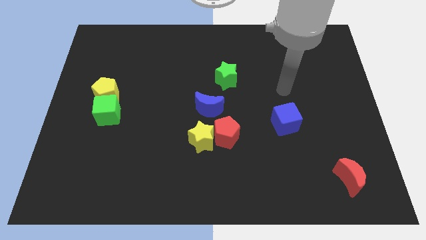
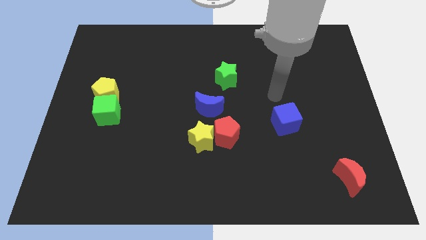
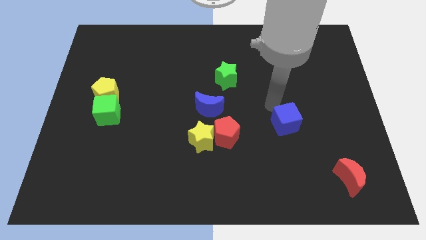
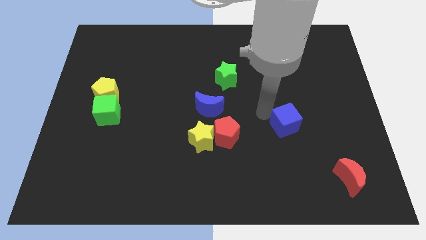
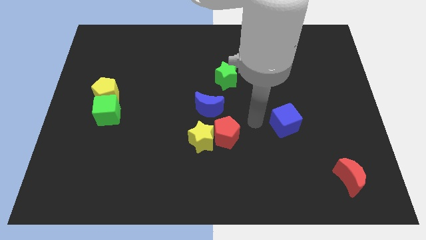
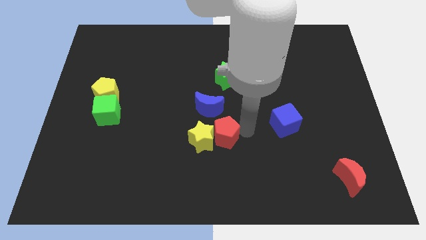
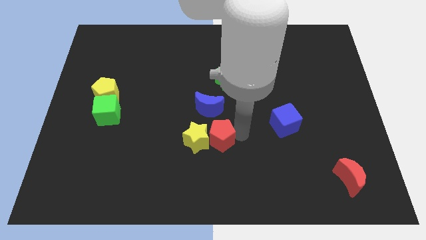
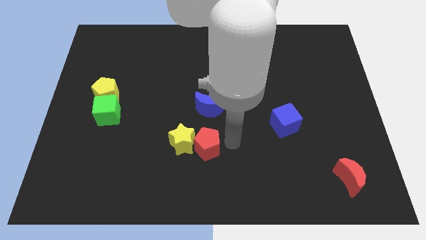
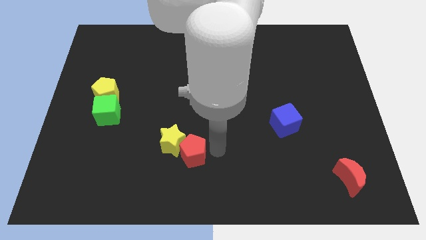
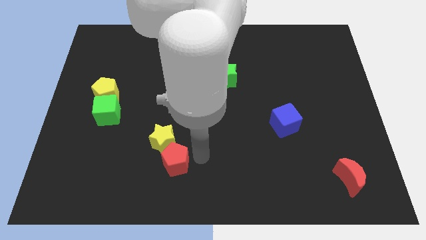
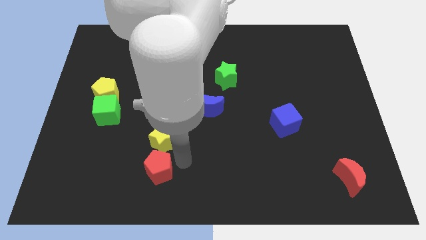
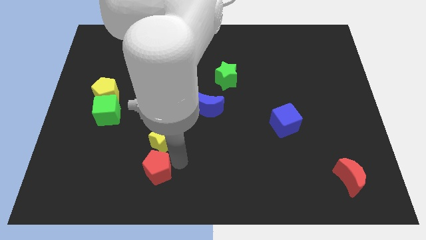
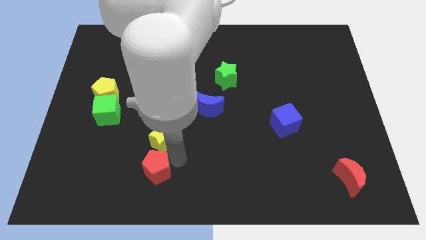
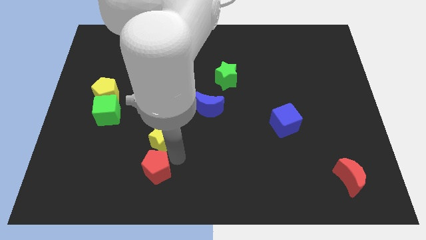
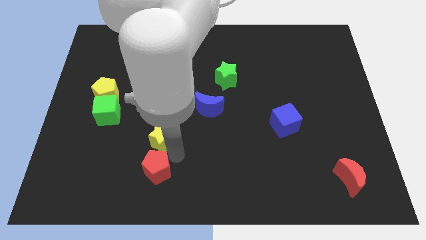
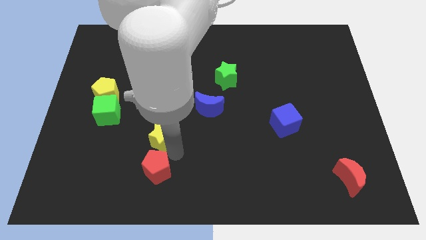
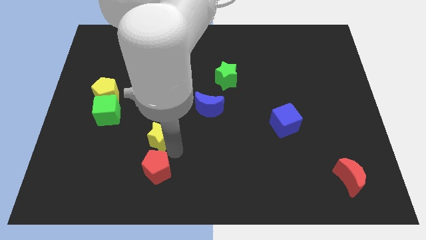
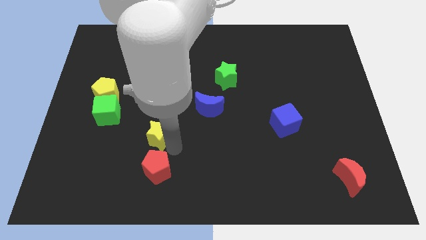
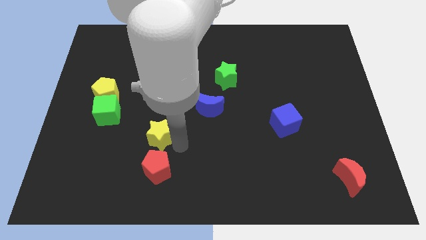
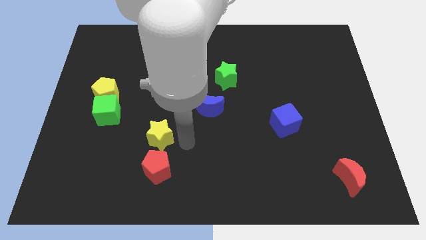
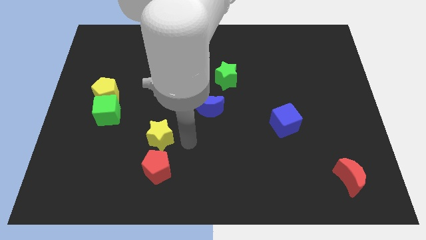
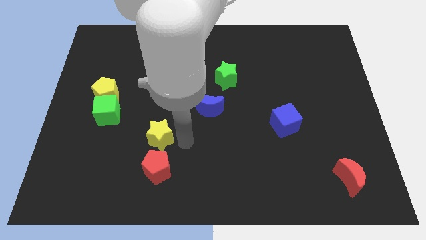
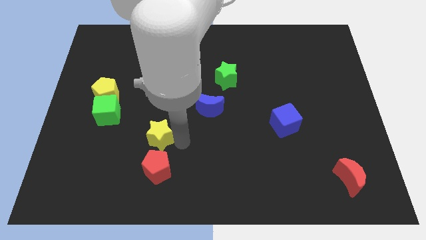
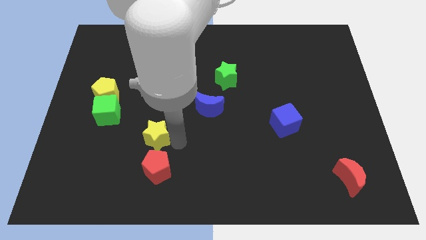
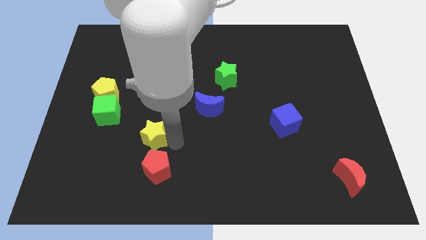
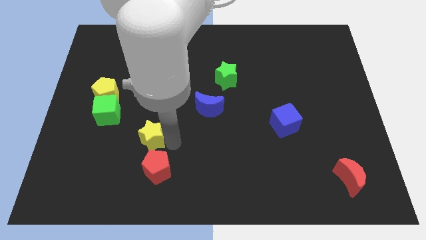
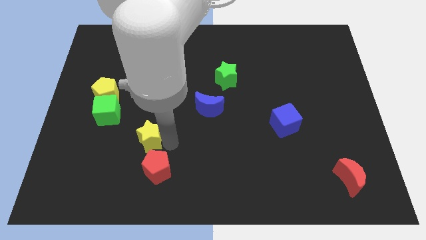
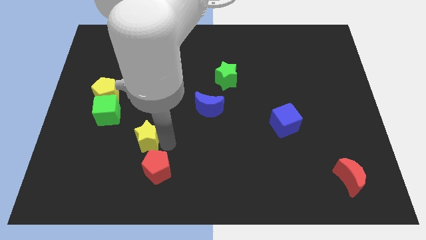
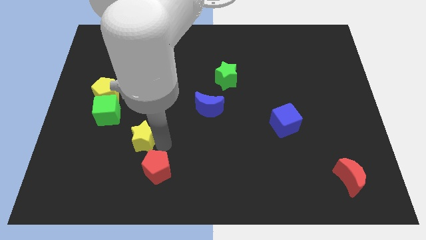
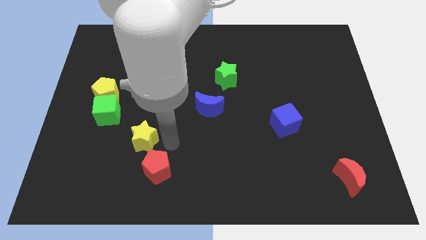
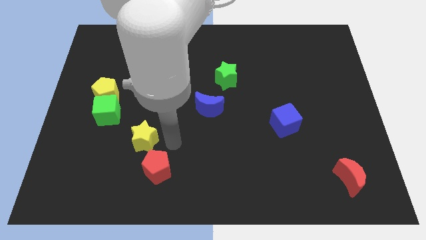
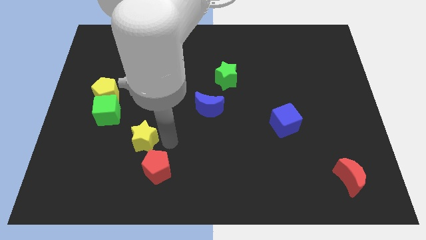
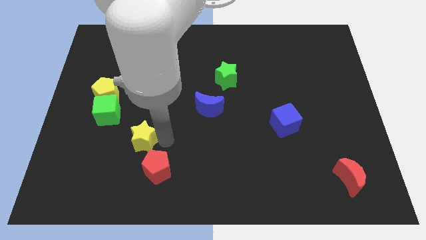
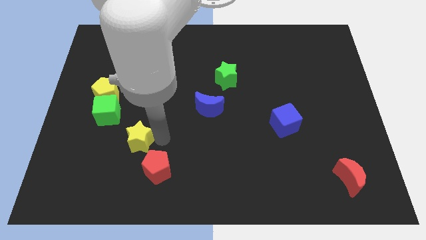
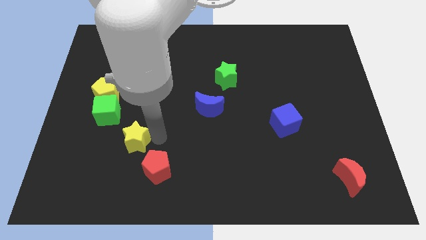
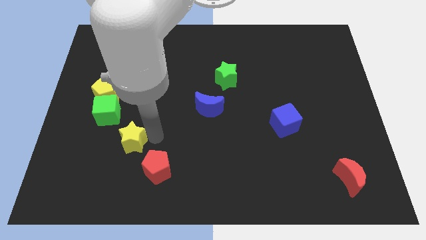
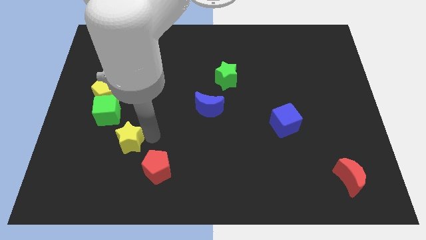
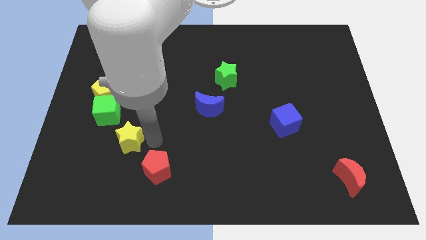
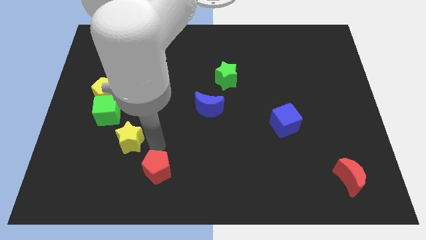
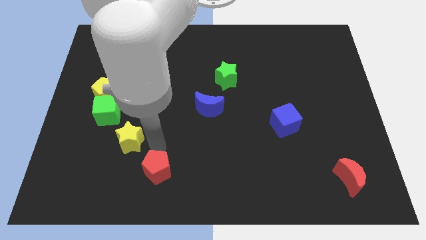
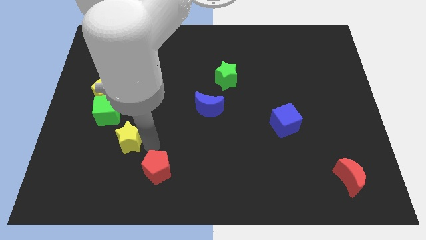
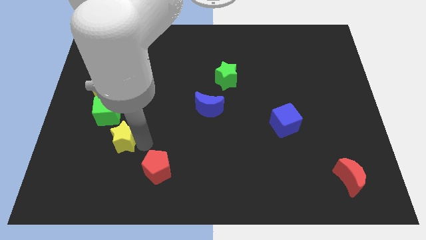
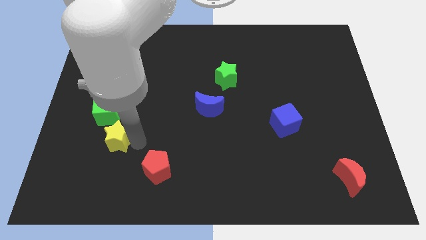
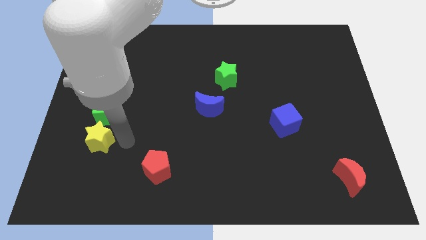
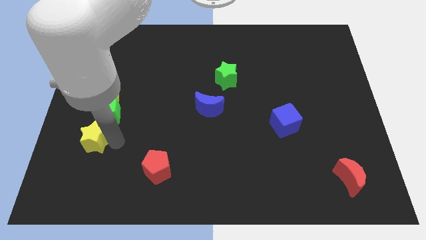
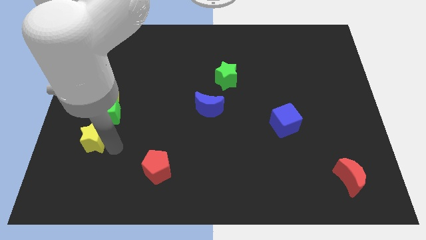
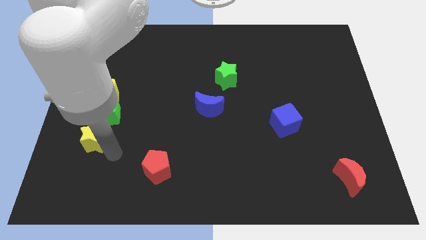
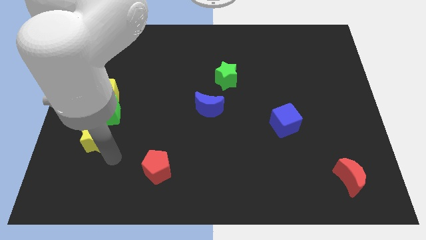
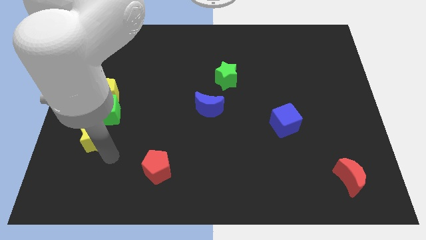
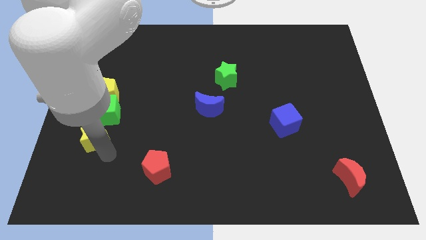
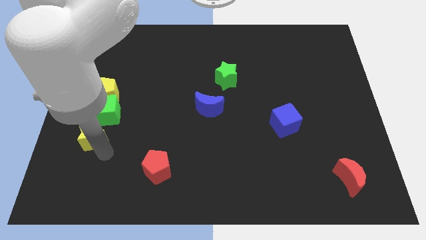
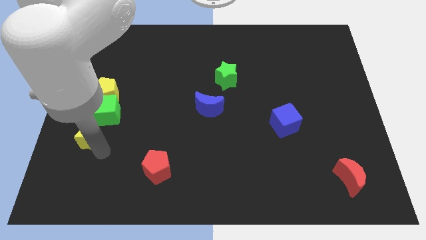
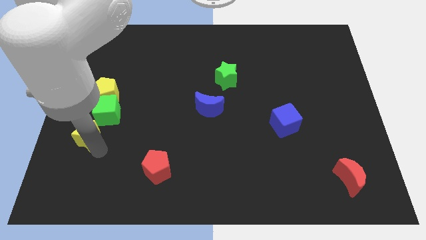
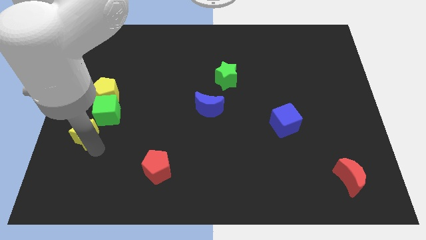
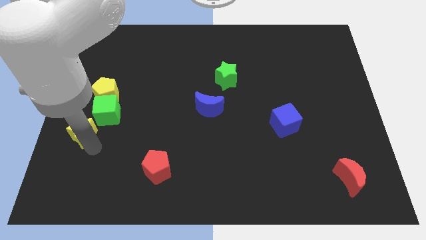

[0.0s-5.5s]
move the yellow star to the left side of the board

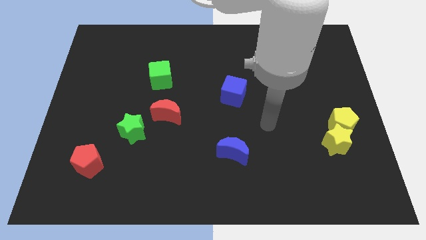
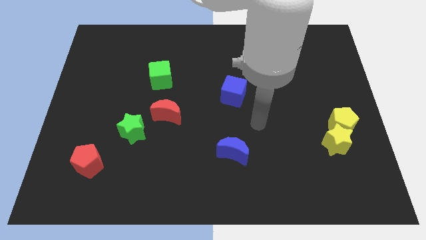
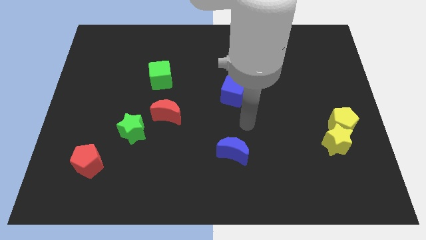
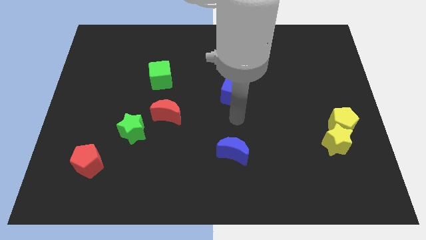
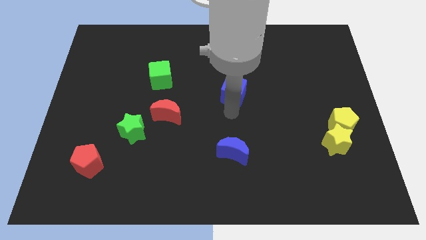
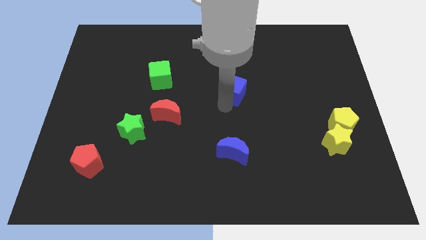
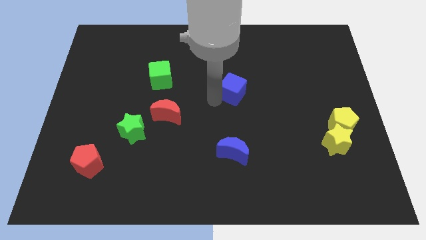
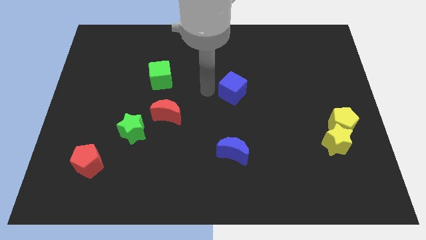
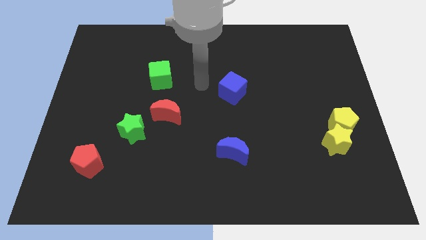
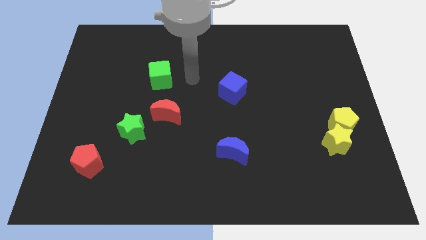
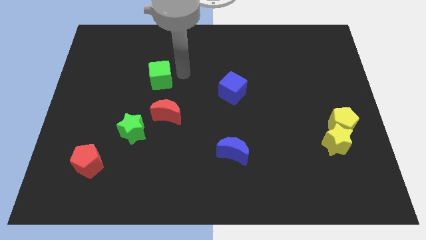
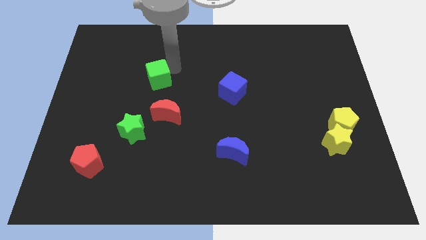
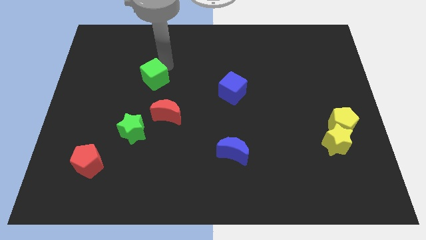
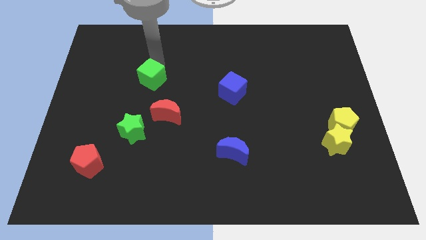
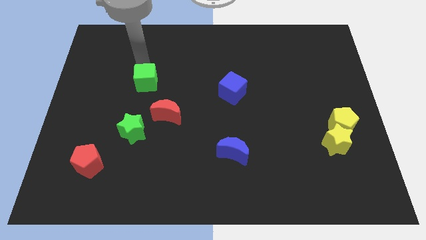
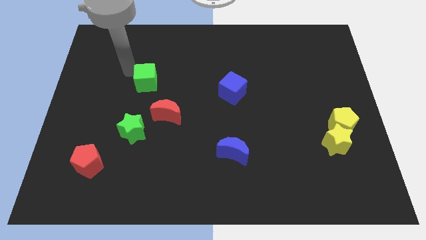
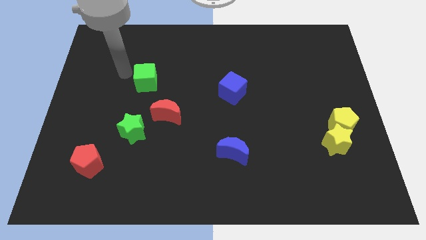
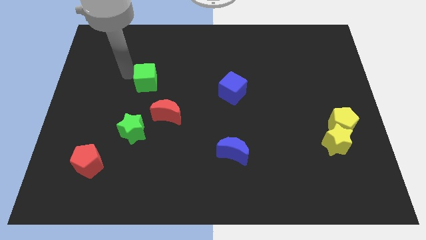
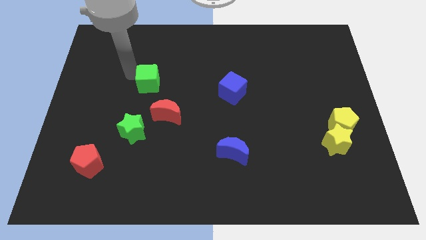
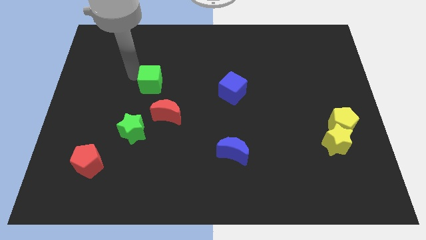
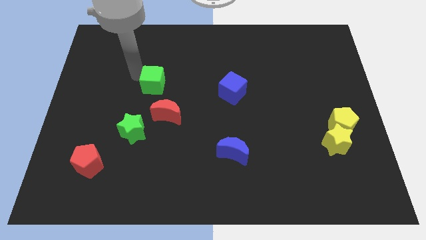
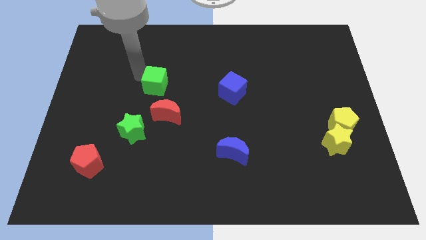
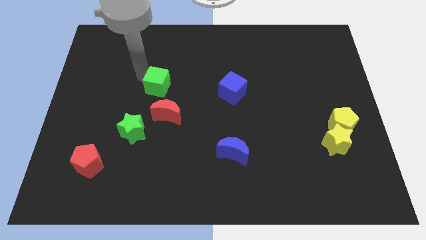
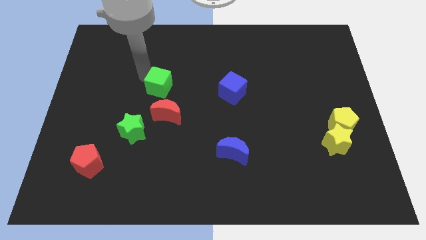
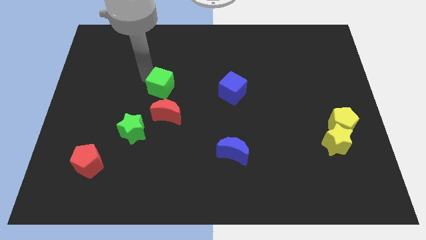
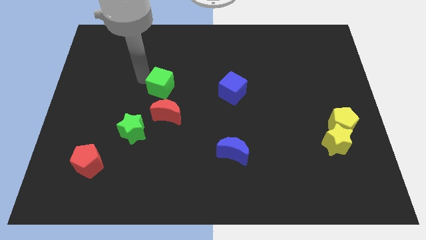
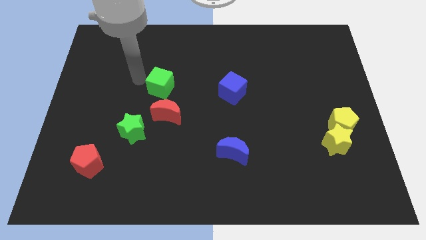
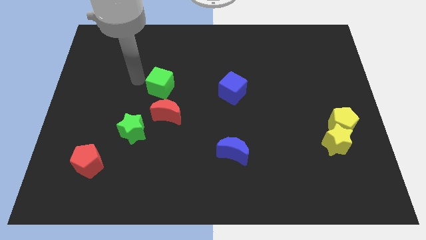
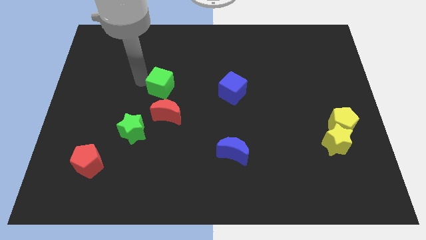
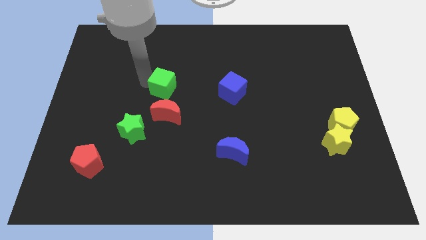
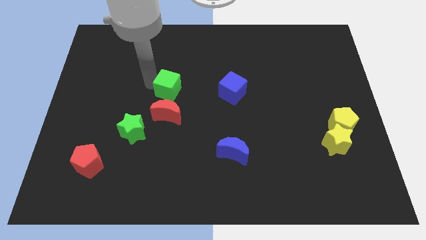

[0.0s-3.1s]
put the green cube to the center
